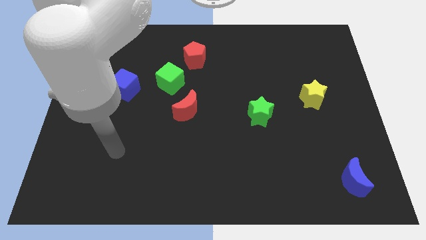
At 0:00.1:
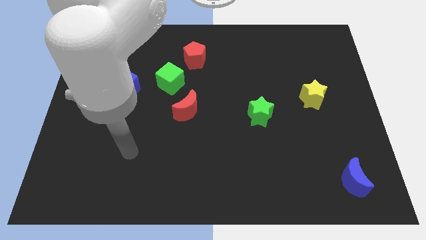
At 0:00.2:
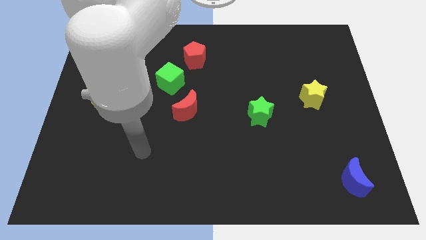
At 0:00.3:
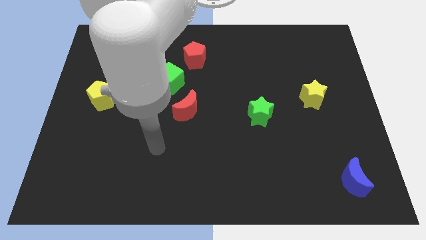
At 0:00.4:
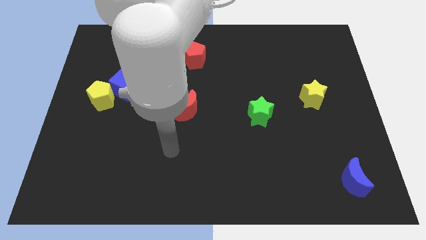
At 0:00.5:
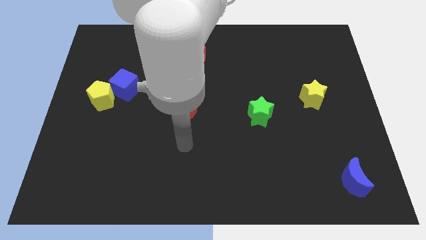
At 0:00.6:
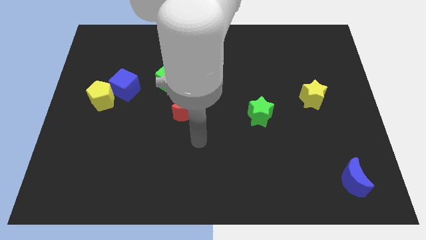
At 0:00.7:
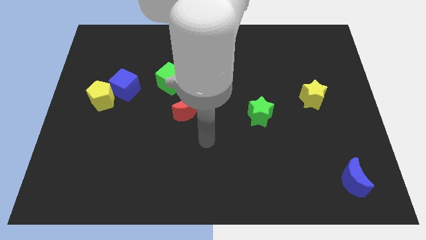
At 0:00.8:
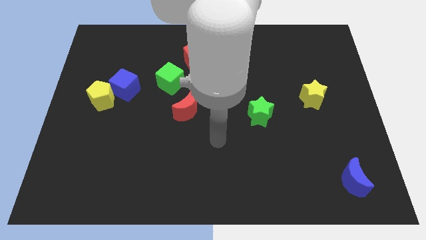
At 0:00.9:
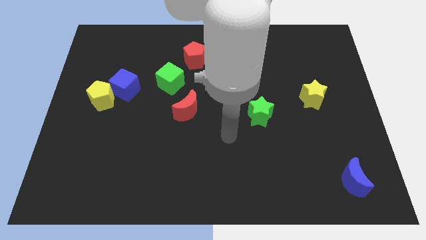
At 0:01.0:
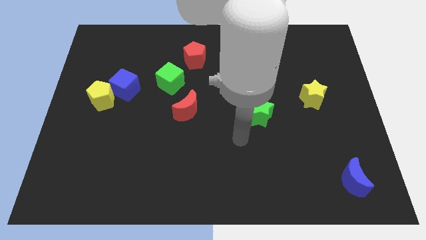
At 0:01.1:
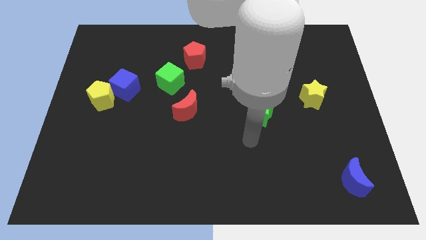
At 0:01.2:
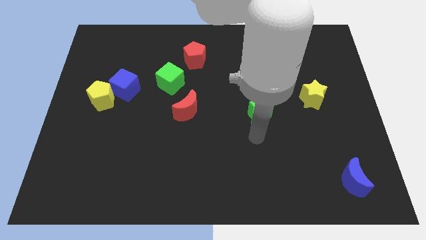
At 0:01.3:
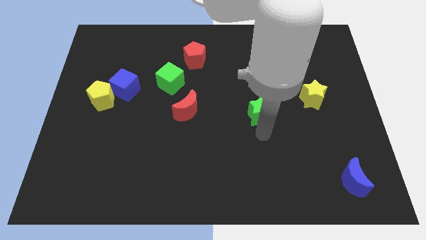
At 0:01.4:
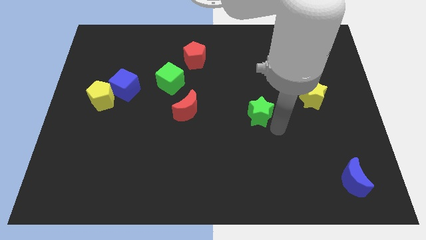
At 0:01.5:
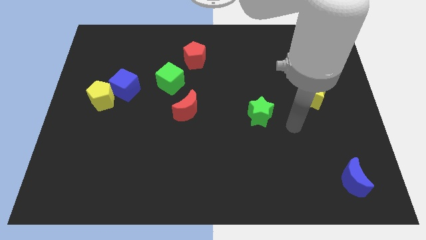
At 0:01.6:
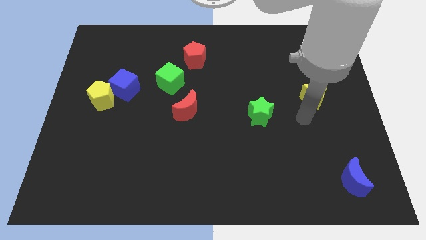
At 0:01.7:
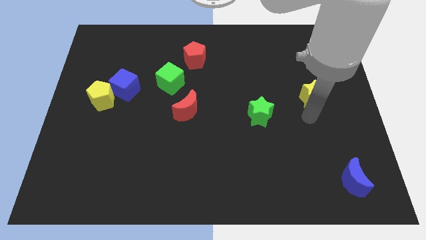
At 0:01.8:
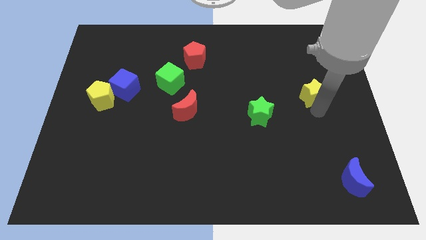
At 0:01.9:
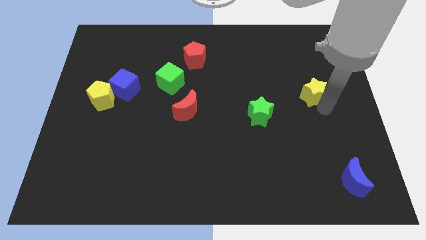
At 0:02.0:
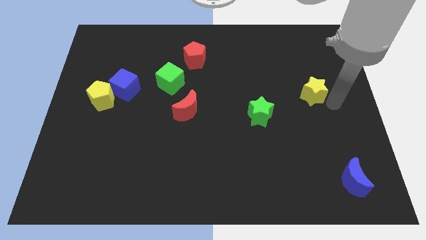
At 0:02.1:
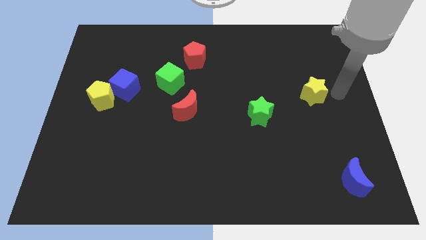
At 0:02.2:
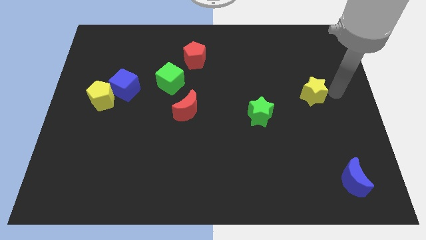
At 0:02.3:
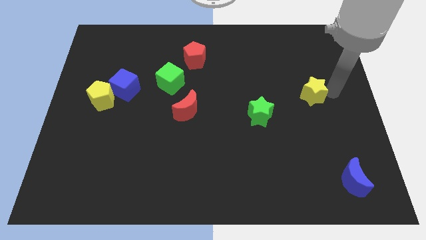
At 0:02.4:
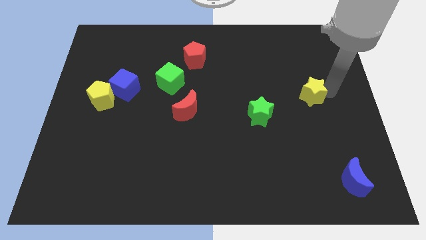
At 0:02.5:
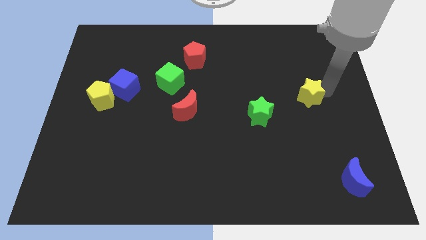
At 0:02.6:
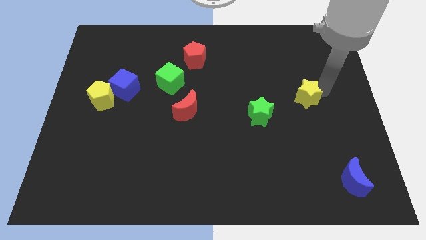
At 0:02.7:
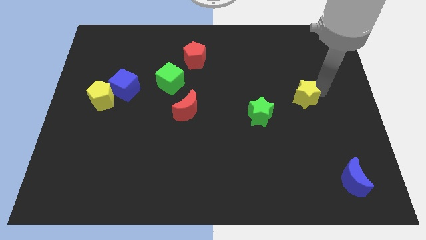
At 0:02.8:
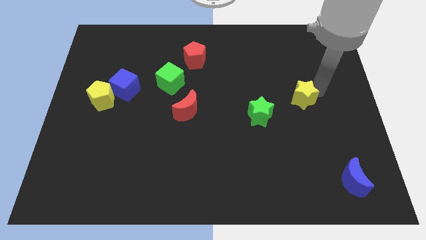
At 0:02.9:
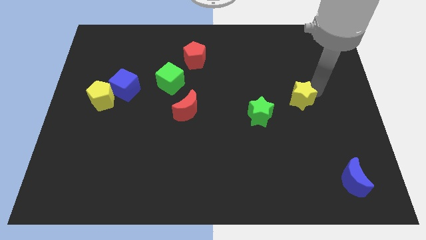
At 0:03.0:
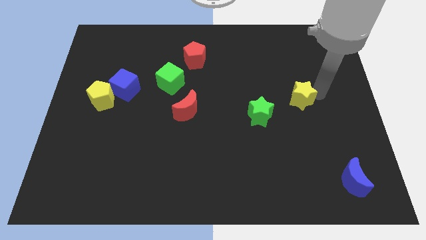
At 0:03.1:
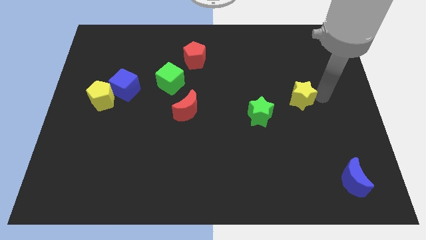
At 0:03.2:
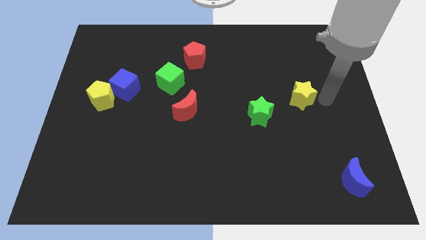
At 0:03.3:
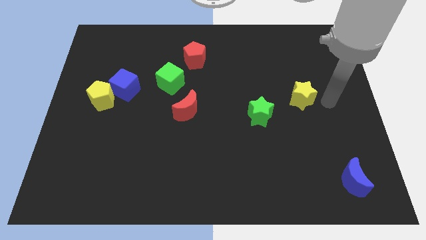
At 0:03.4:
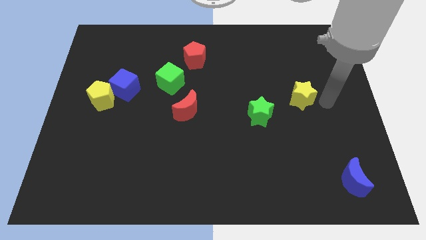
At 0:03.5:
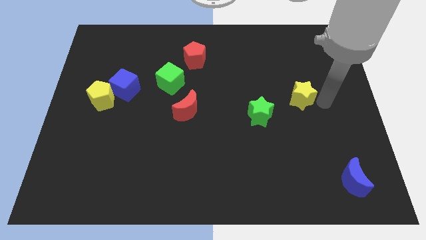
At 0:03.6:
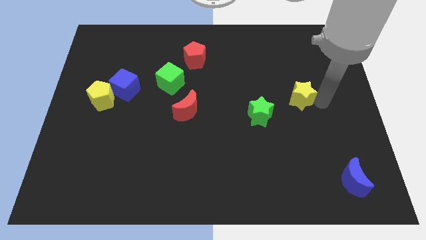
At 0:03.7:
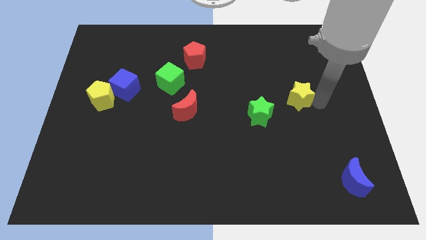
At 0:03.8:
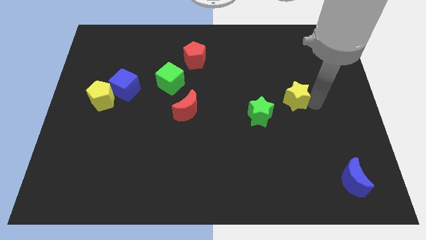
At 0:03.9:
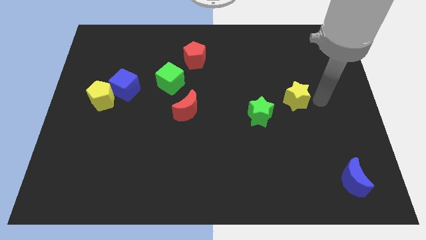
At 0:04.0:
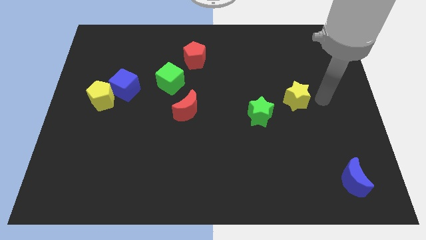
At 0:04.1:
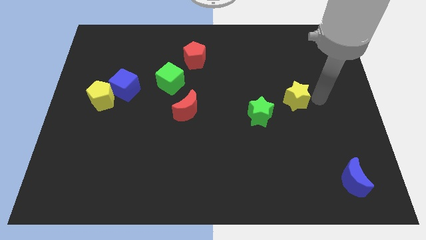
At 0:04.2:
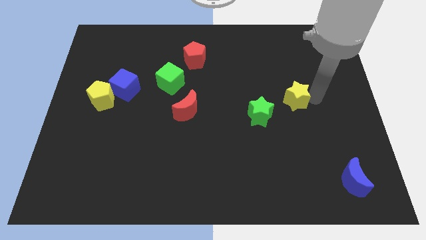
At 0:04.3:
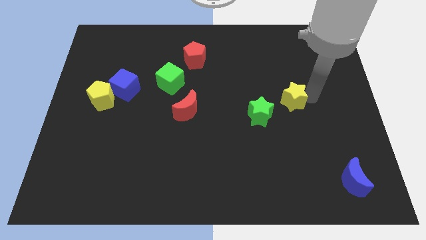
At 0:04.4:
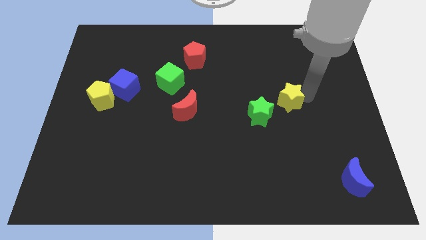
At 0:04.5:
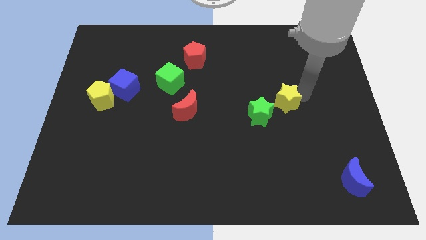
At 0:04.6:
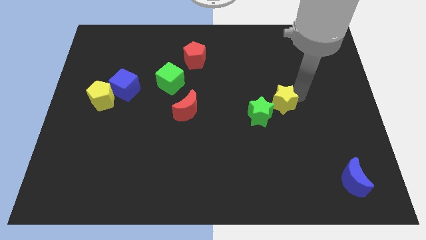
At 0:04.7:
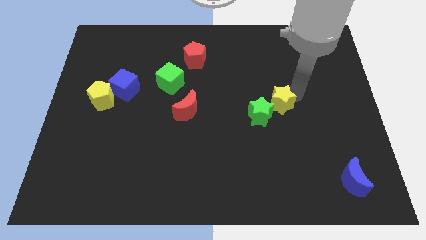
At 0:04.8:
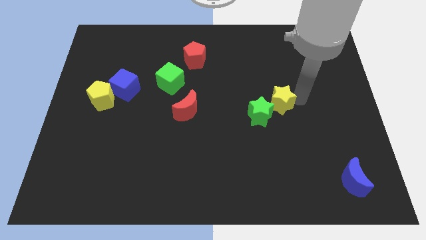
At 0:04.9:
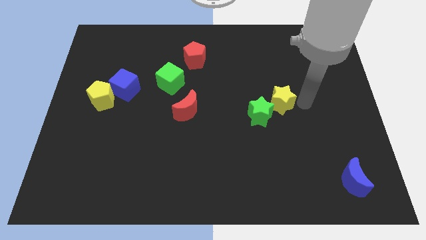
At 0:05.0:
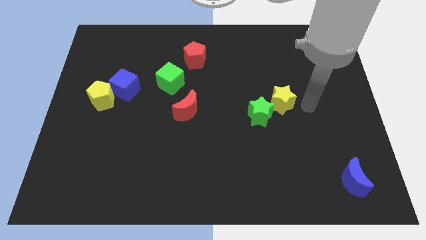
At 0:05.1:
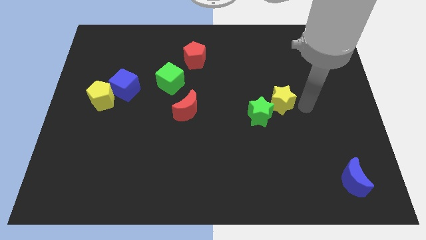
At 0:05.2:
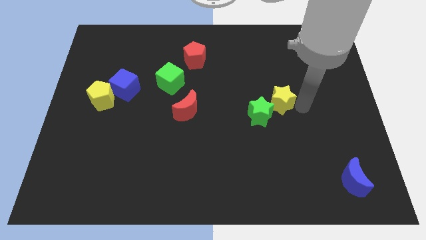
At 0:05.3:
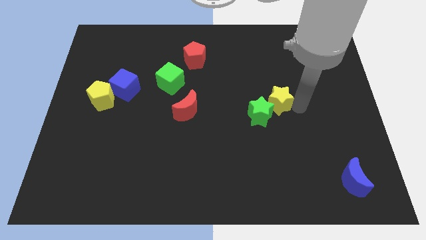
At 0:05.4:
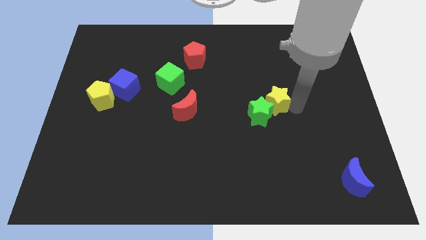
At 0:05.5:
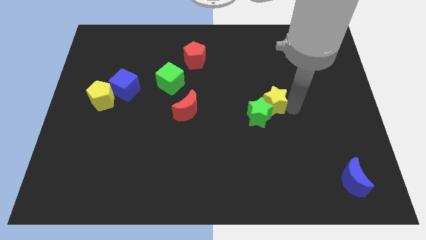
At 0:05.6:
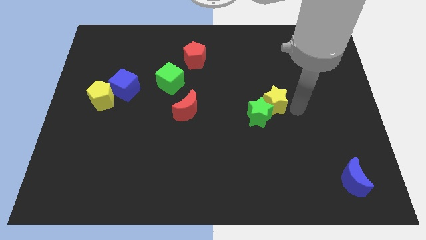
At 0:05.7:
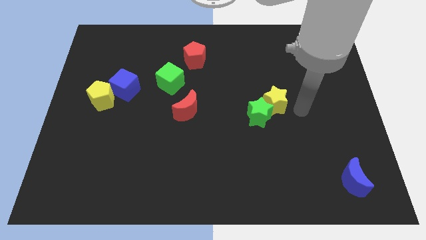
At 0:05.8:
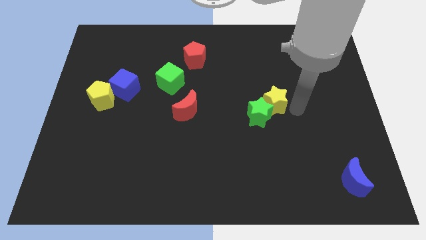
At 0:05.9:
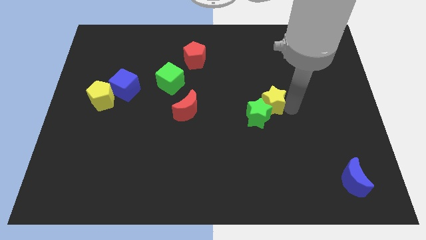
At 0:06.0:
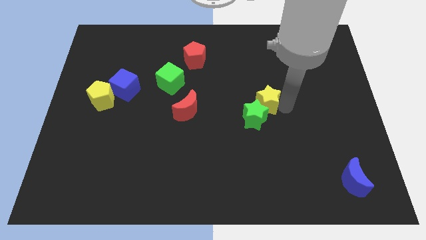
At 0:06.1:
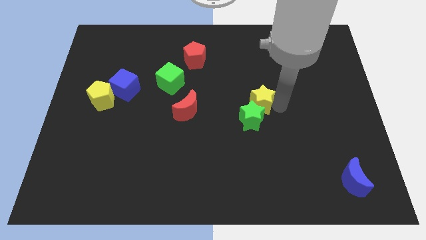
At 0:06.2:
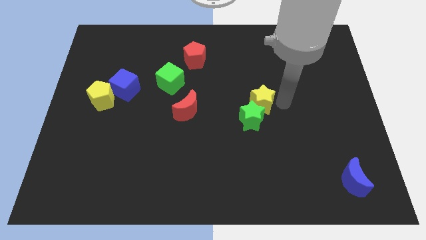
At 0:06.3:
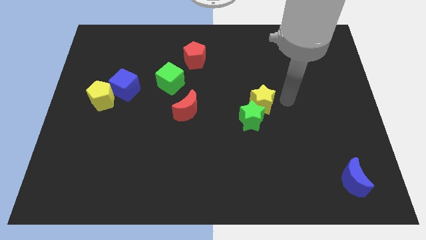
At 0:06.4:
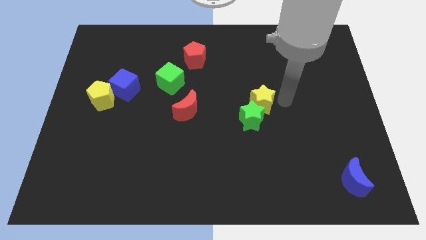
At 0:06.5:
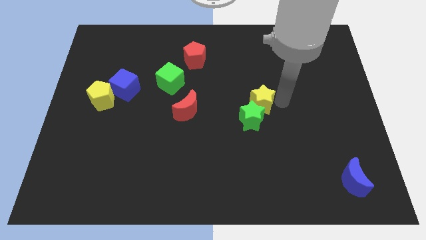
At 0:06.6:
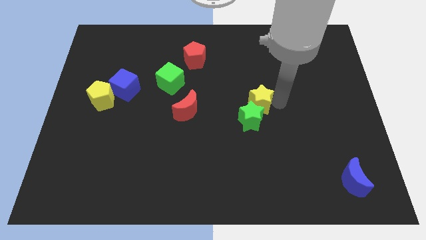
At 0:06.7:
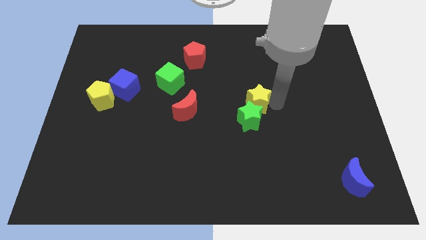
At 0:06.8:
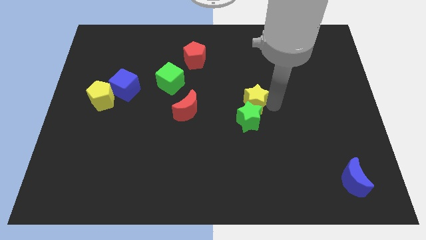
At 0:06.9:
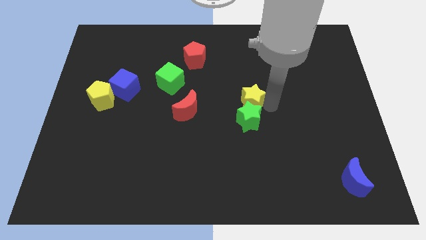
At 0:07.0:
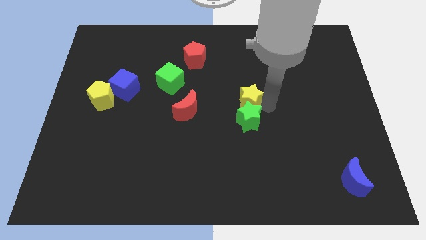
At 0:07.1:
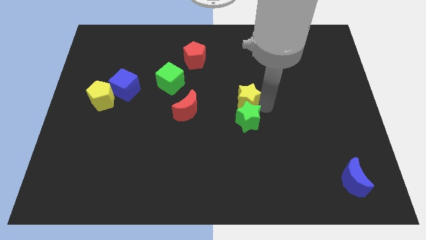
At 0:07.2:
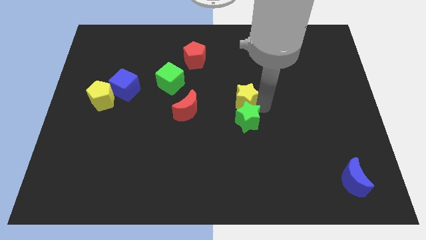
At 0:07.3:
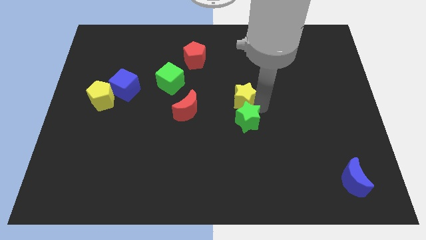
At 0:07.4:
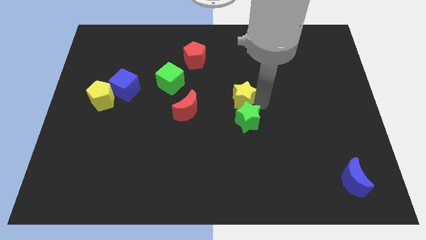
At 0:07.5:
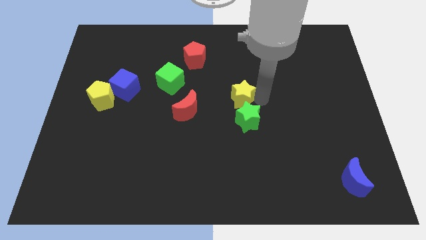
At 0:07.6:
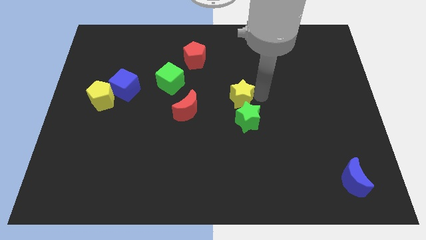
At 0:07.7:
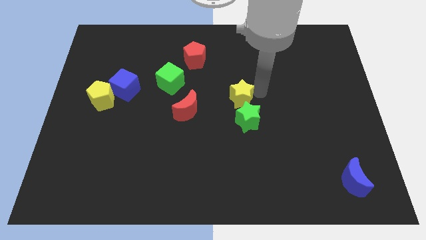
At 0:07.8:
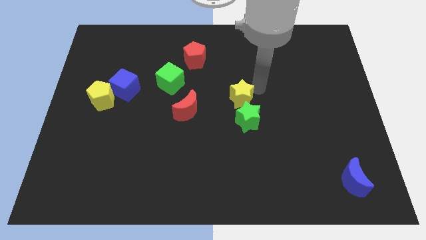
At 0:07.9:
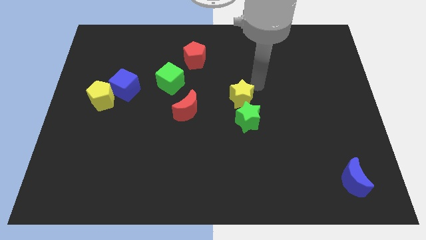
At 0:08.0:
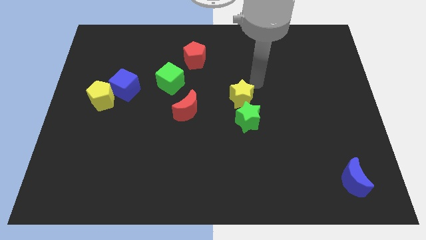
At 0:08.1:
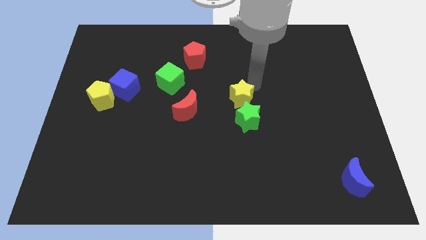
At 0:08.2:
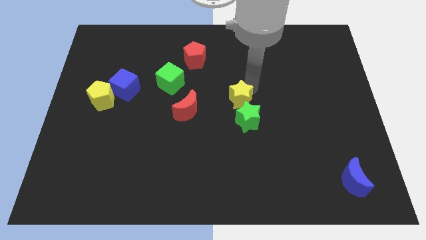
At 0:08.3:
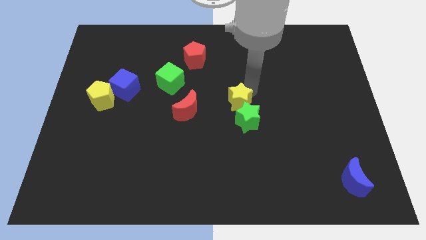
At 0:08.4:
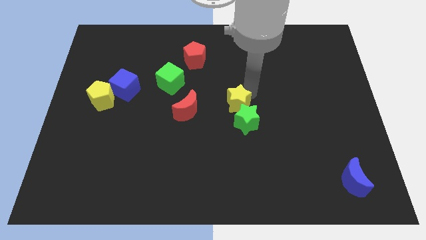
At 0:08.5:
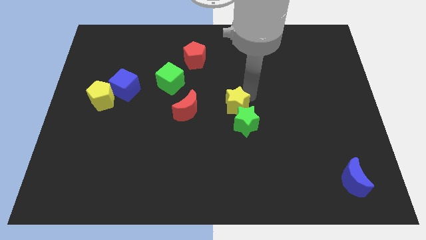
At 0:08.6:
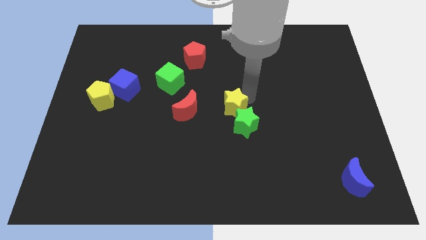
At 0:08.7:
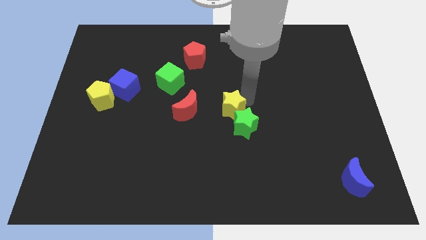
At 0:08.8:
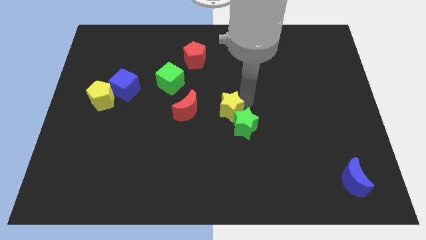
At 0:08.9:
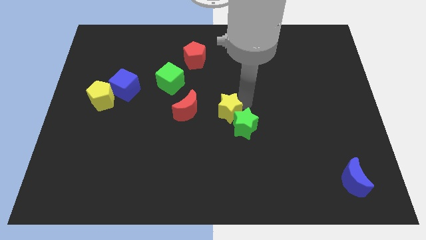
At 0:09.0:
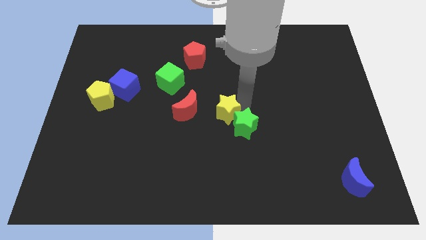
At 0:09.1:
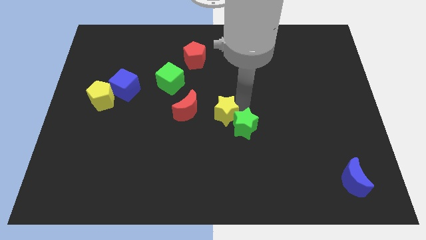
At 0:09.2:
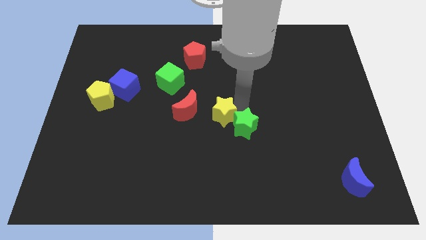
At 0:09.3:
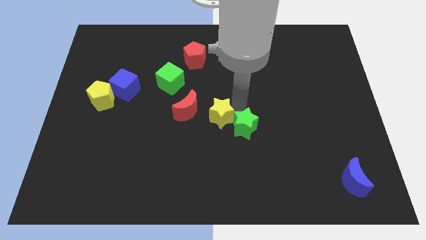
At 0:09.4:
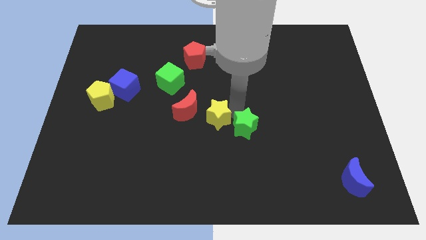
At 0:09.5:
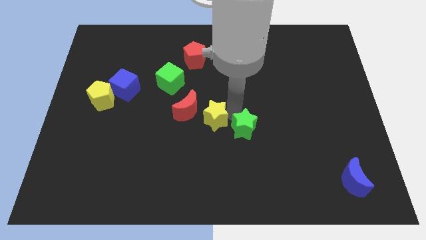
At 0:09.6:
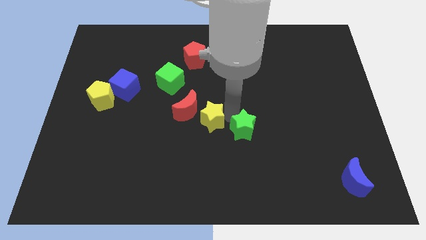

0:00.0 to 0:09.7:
put the yellow star towards the red moon
